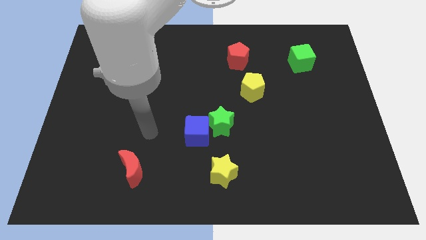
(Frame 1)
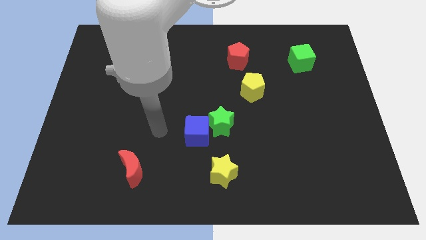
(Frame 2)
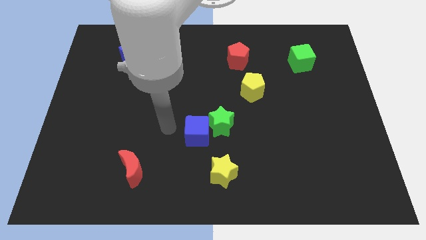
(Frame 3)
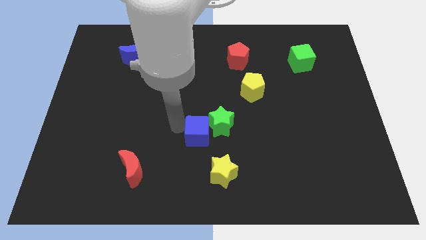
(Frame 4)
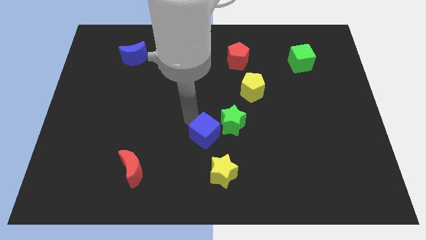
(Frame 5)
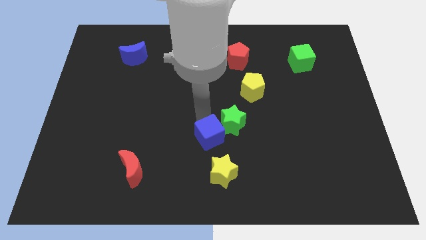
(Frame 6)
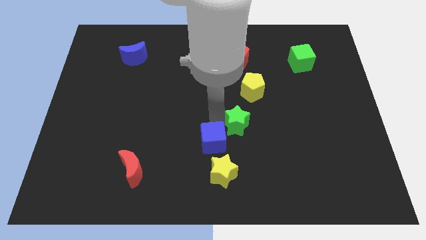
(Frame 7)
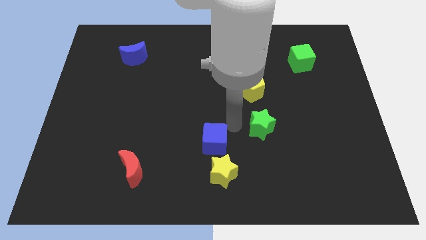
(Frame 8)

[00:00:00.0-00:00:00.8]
move the blue cube away from the green star

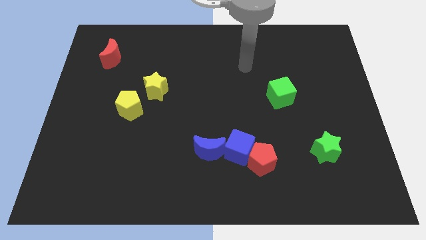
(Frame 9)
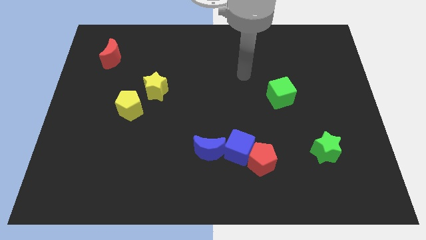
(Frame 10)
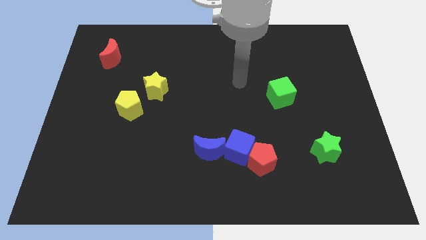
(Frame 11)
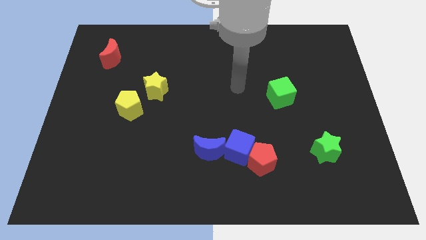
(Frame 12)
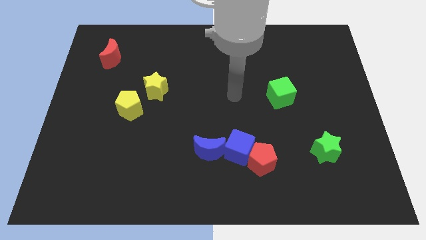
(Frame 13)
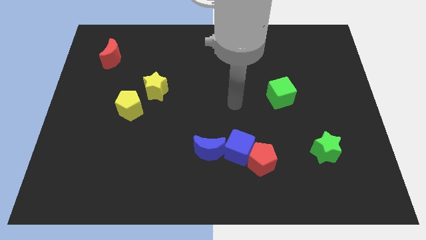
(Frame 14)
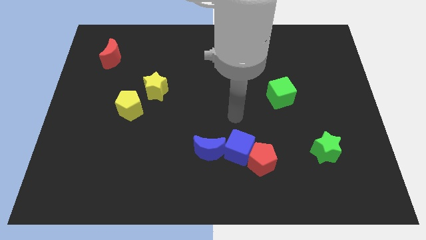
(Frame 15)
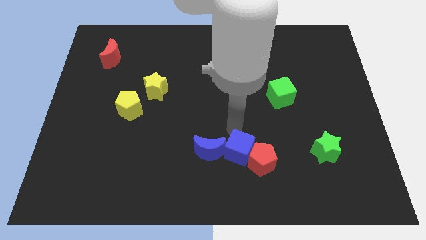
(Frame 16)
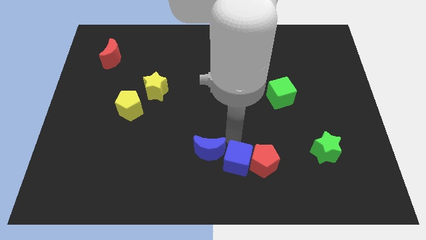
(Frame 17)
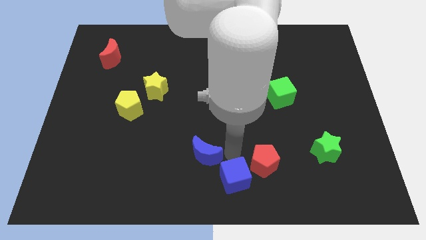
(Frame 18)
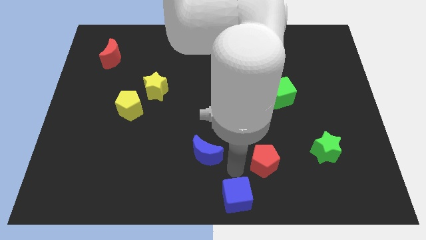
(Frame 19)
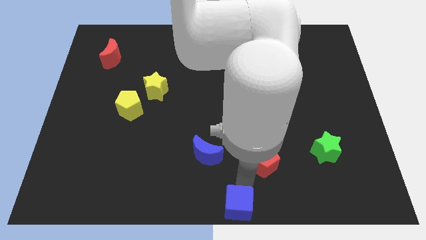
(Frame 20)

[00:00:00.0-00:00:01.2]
separate the red pentagon from the blue cube

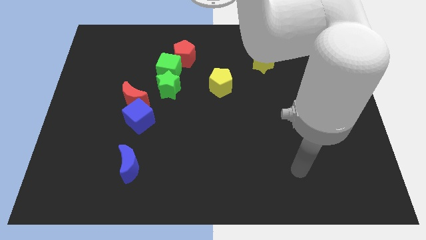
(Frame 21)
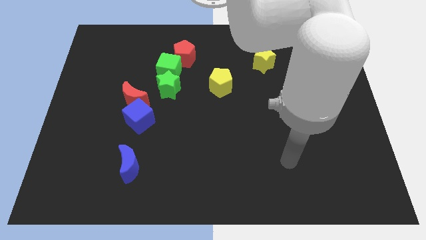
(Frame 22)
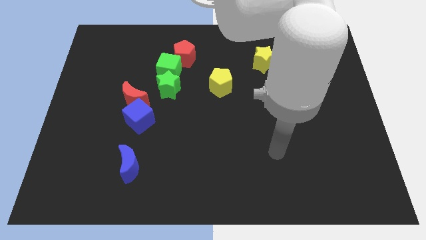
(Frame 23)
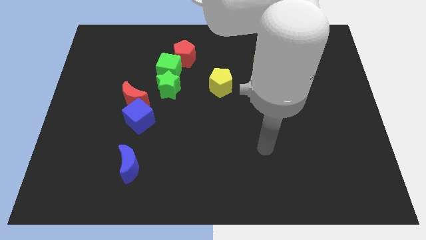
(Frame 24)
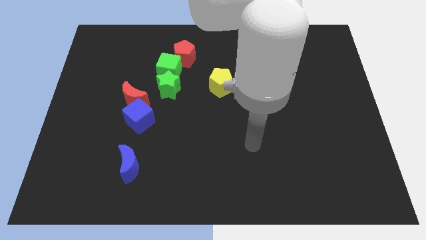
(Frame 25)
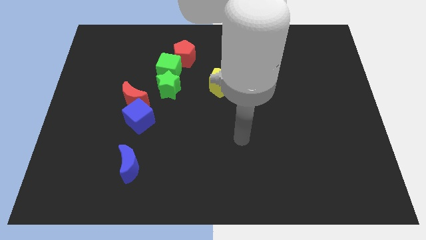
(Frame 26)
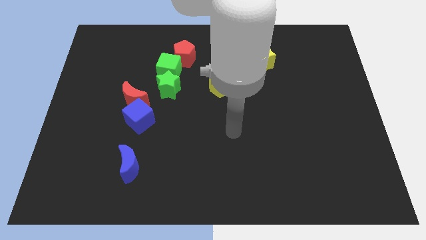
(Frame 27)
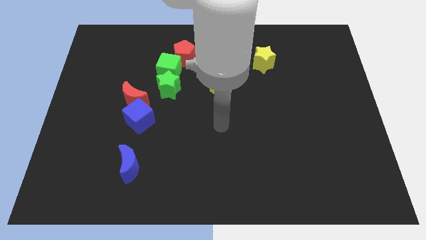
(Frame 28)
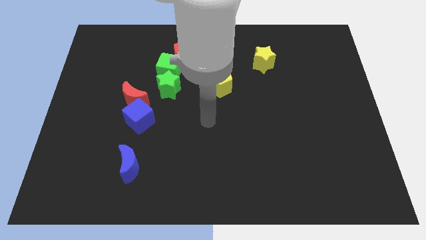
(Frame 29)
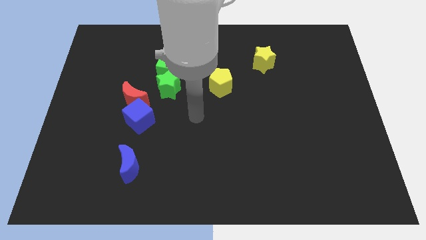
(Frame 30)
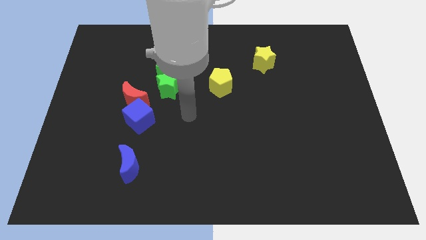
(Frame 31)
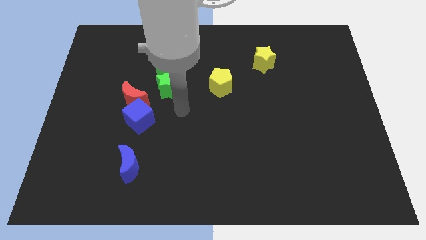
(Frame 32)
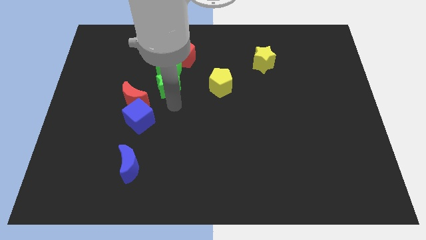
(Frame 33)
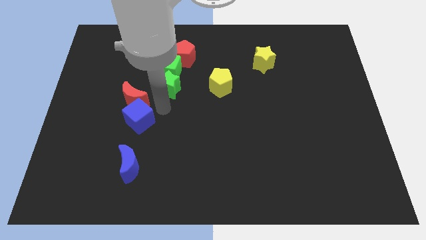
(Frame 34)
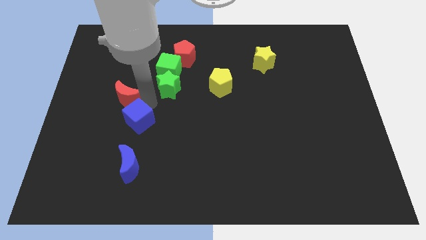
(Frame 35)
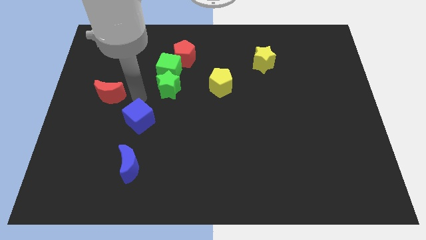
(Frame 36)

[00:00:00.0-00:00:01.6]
separate the blue cube from the red moon

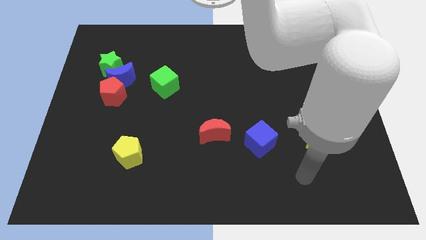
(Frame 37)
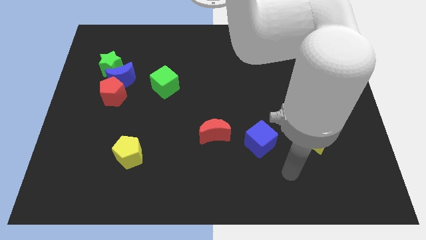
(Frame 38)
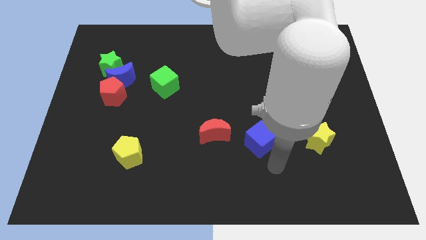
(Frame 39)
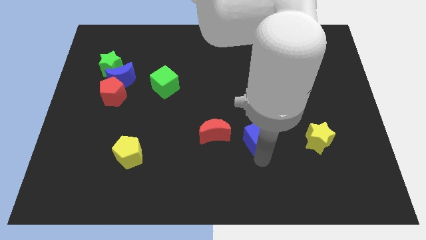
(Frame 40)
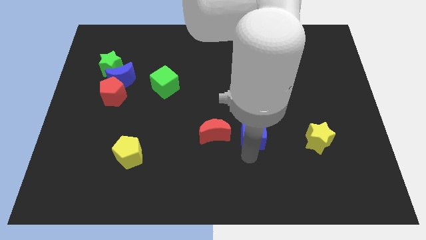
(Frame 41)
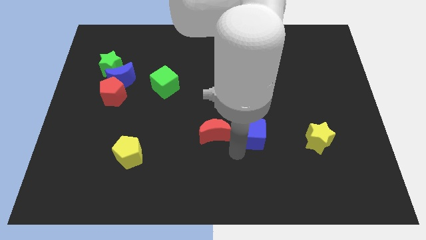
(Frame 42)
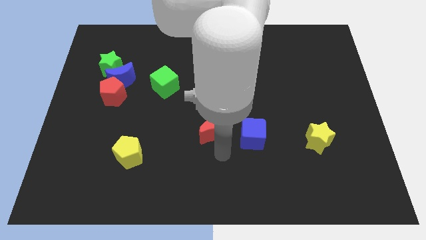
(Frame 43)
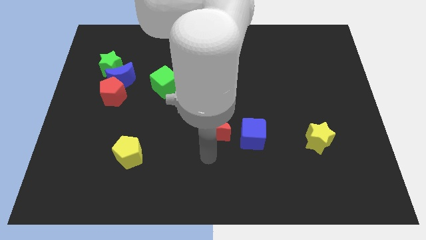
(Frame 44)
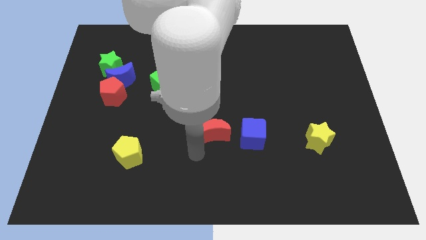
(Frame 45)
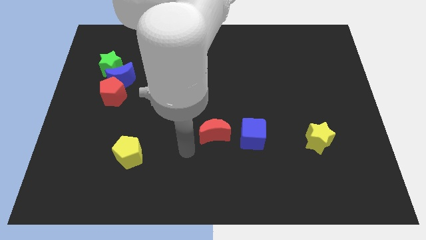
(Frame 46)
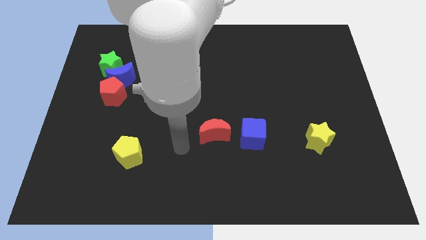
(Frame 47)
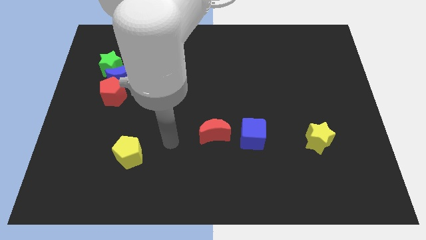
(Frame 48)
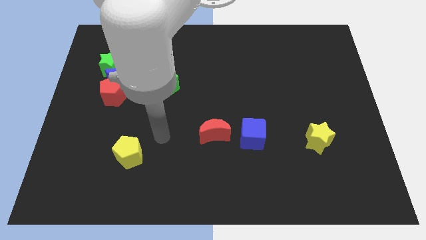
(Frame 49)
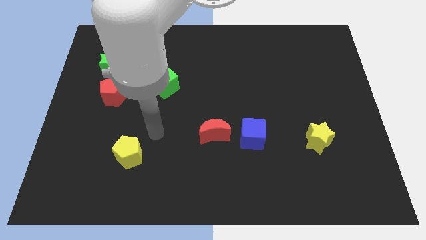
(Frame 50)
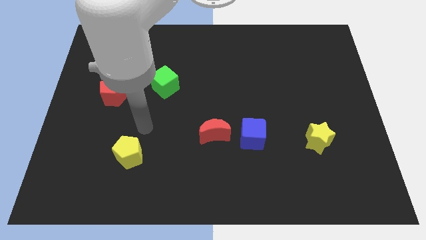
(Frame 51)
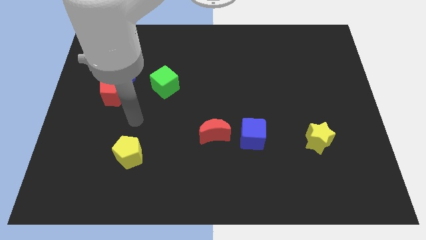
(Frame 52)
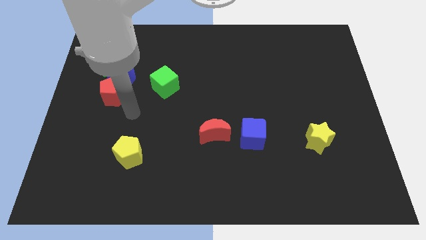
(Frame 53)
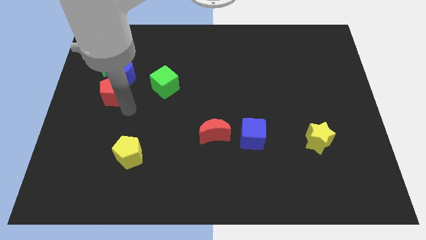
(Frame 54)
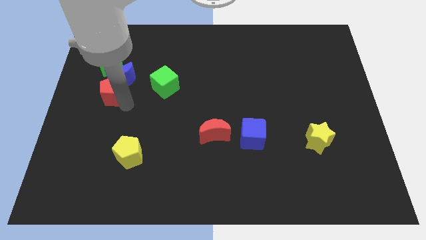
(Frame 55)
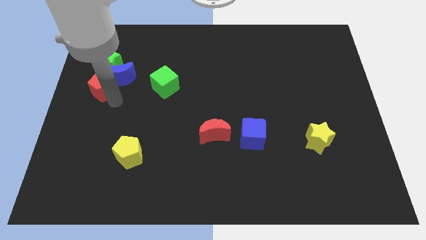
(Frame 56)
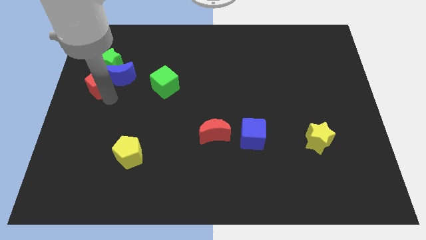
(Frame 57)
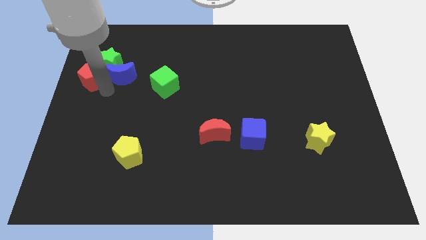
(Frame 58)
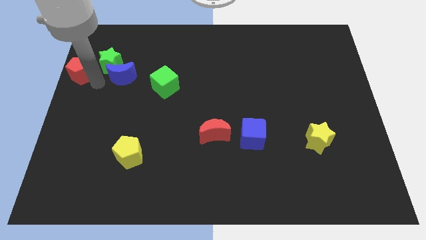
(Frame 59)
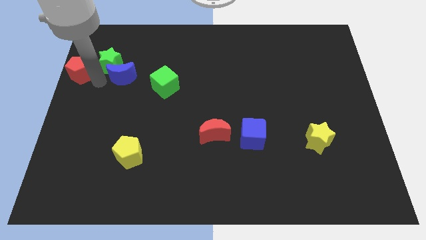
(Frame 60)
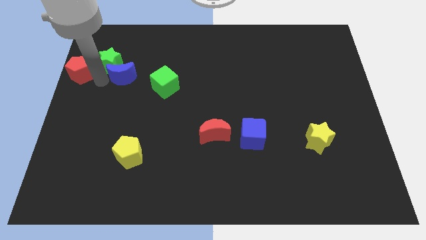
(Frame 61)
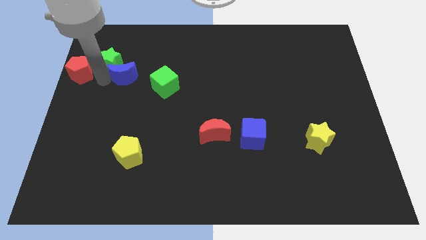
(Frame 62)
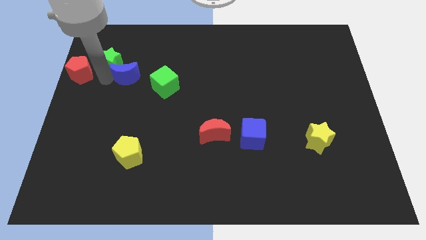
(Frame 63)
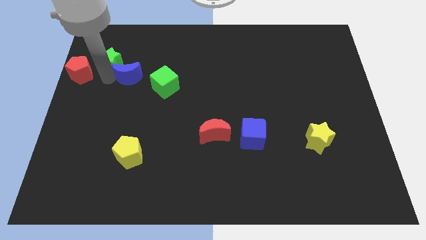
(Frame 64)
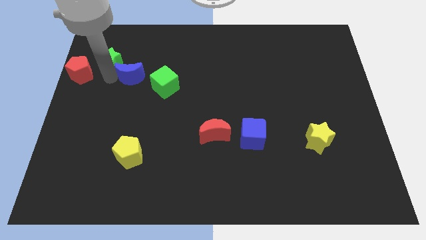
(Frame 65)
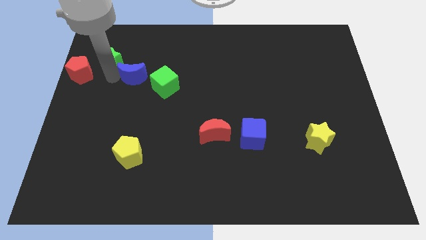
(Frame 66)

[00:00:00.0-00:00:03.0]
pull the blue moon apart from the red pentagon and green star

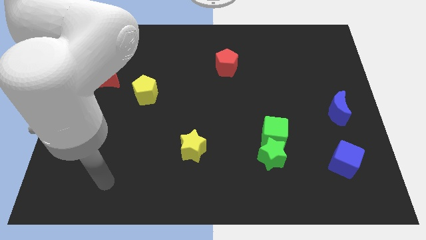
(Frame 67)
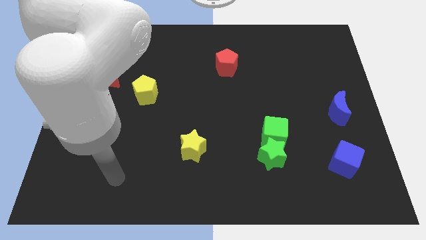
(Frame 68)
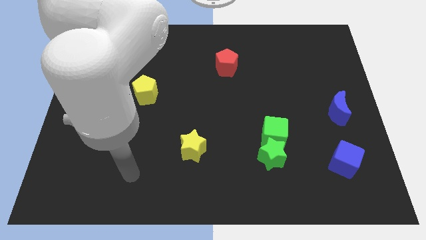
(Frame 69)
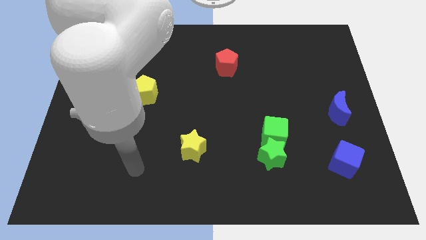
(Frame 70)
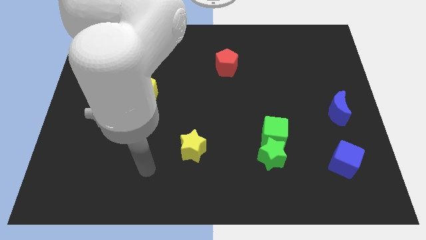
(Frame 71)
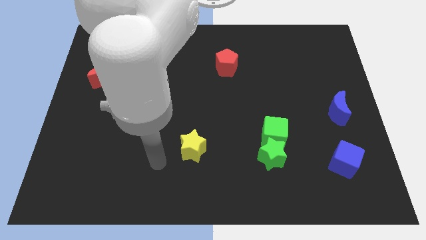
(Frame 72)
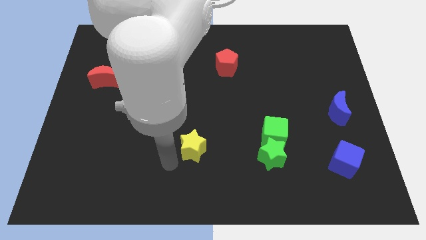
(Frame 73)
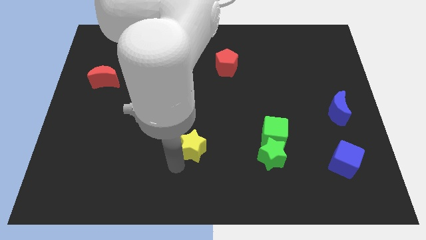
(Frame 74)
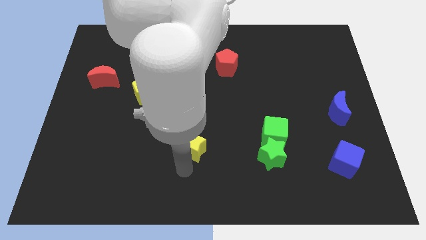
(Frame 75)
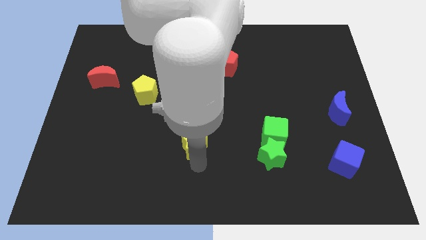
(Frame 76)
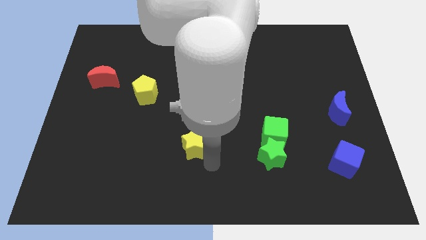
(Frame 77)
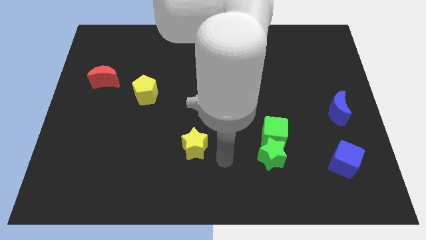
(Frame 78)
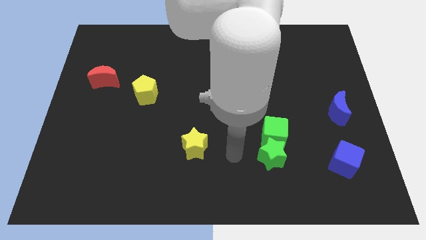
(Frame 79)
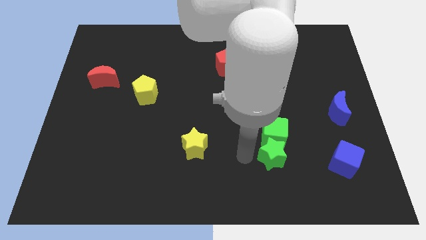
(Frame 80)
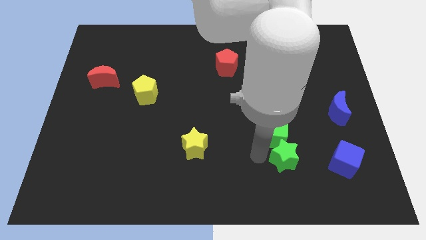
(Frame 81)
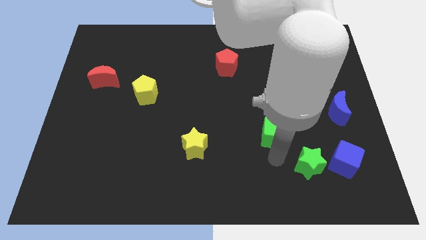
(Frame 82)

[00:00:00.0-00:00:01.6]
pull the green cube apart from the green star

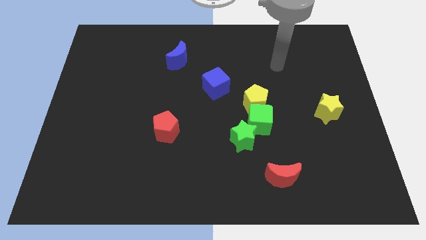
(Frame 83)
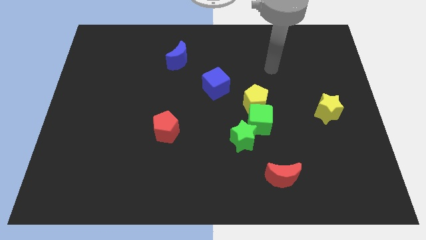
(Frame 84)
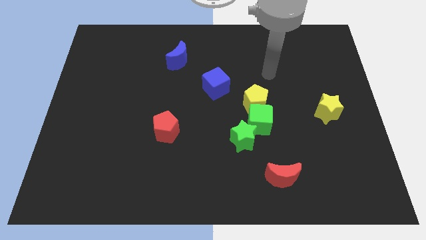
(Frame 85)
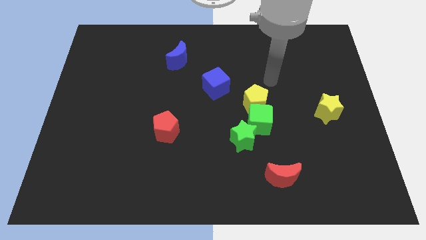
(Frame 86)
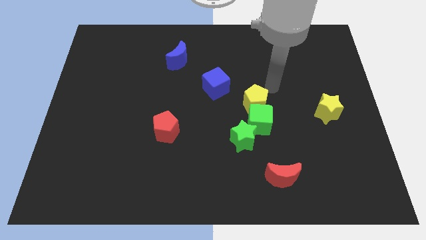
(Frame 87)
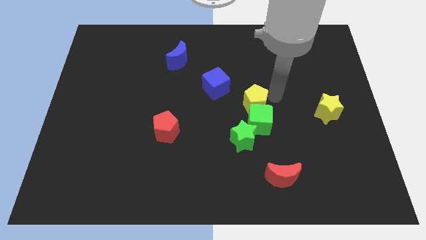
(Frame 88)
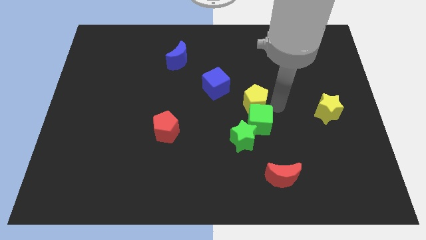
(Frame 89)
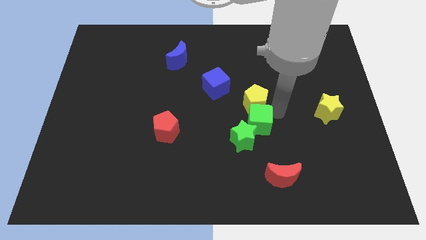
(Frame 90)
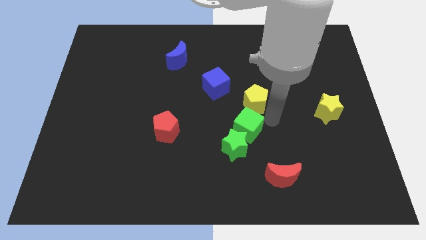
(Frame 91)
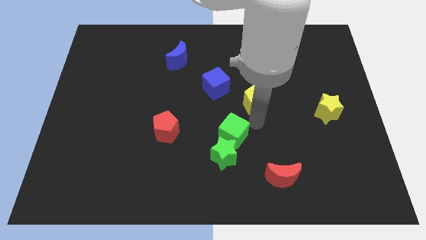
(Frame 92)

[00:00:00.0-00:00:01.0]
separate the yellow pentagon from the green cube

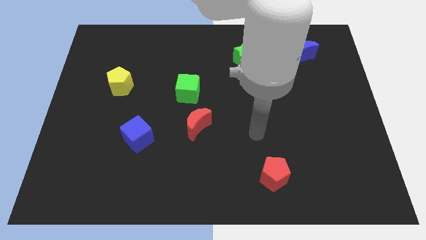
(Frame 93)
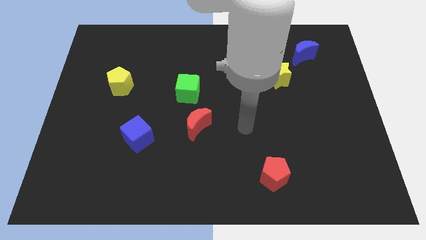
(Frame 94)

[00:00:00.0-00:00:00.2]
pull the red moon apart from the green cube
